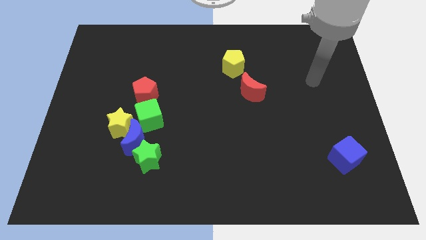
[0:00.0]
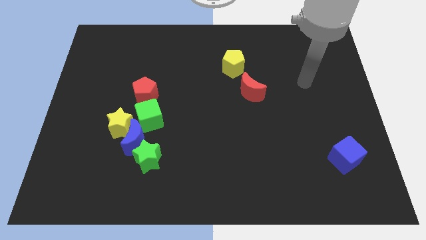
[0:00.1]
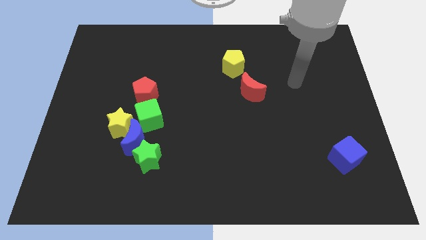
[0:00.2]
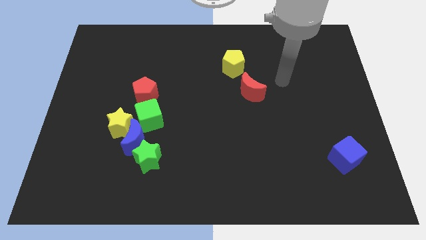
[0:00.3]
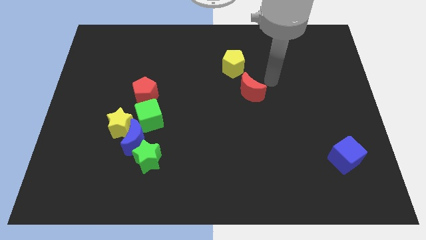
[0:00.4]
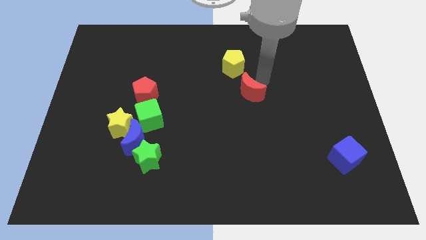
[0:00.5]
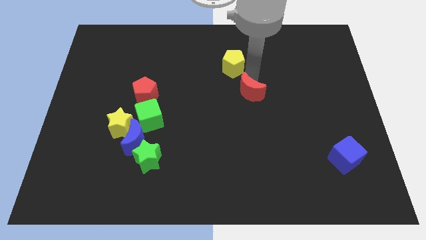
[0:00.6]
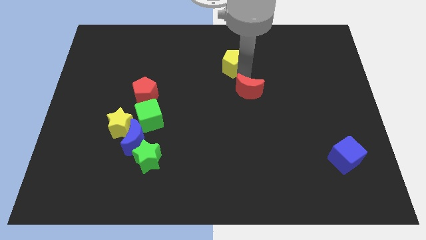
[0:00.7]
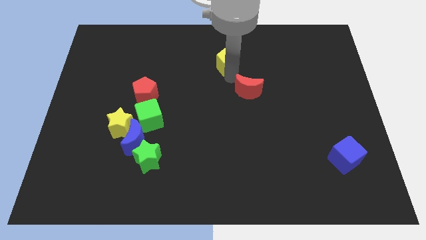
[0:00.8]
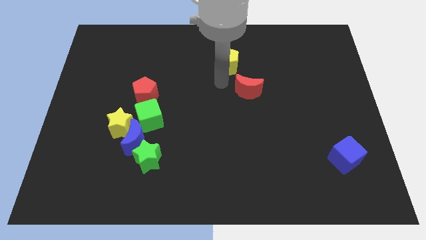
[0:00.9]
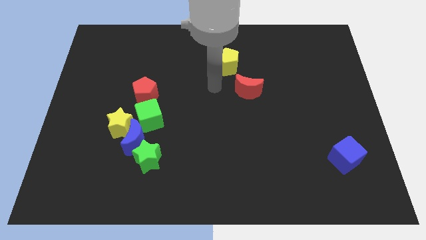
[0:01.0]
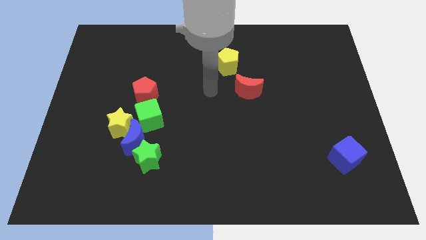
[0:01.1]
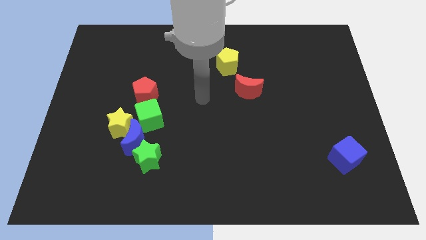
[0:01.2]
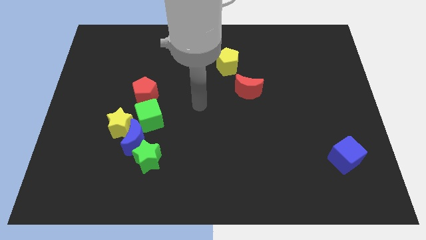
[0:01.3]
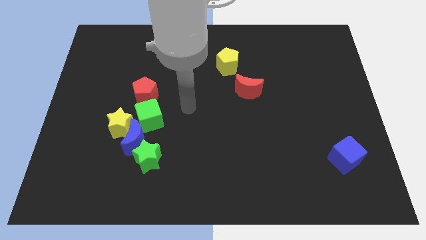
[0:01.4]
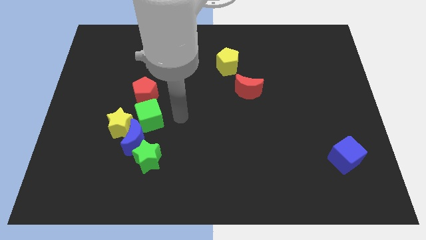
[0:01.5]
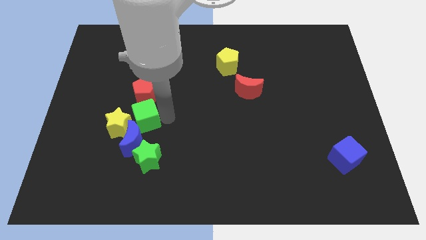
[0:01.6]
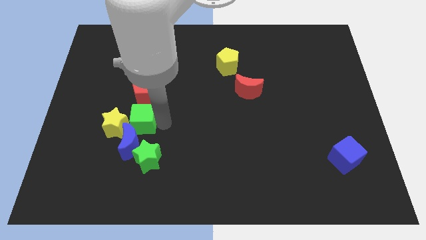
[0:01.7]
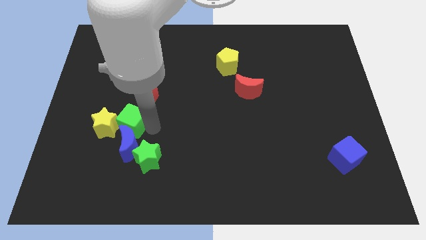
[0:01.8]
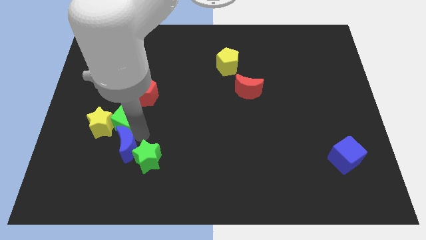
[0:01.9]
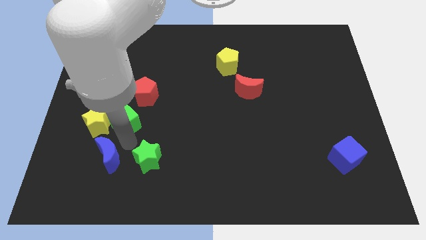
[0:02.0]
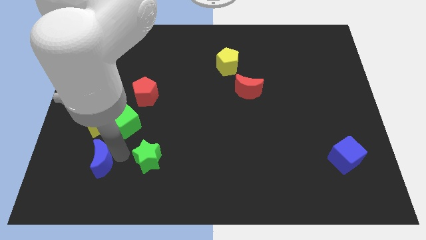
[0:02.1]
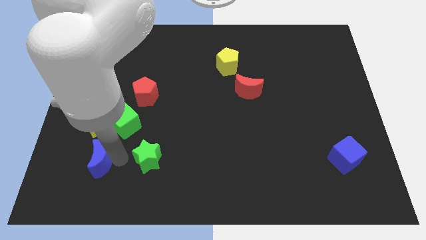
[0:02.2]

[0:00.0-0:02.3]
separate the green star from the blue moon

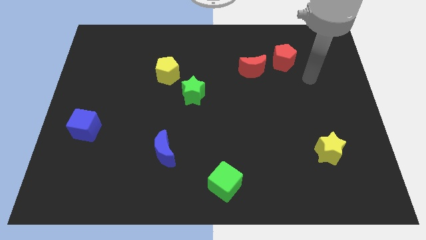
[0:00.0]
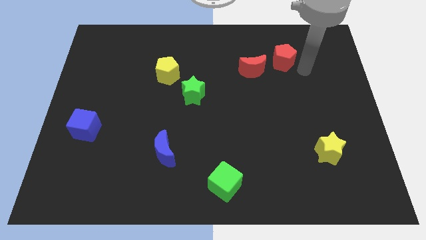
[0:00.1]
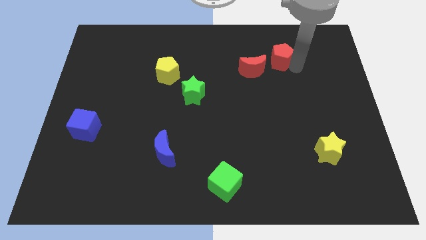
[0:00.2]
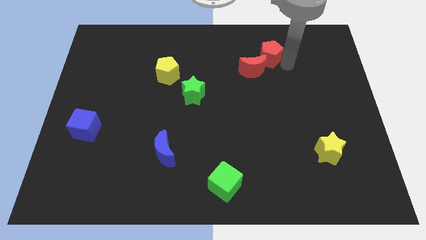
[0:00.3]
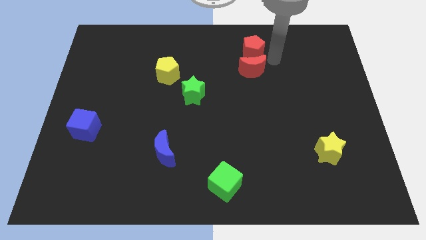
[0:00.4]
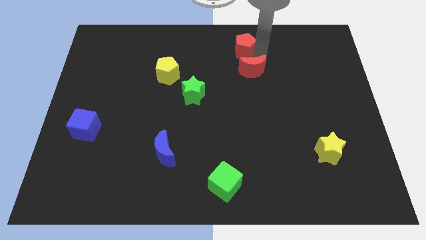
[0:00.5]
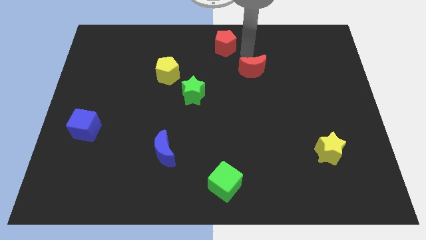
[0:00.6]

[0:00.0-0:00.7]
move the red moon away from the red pentagon

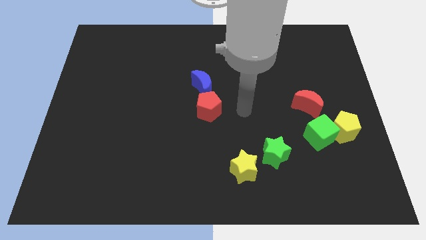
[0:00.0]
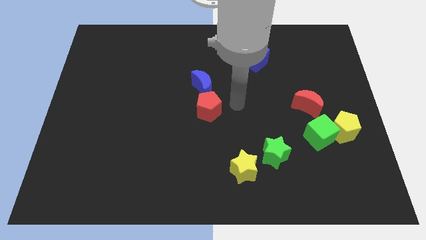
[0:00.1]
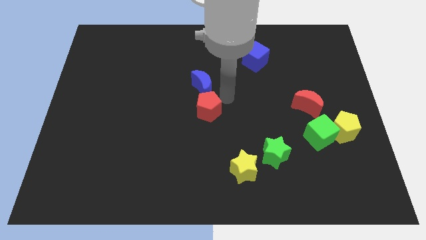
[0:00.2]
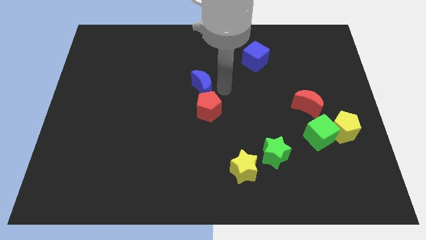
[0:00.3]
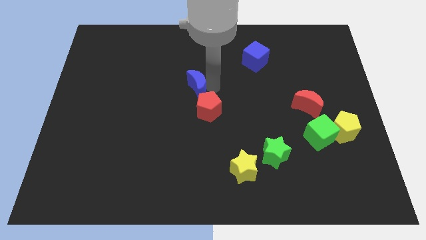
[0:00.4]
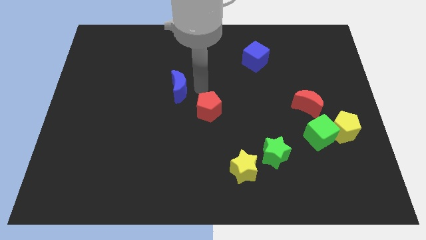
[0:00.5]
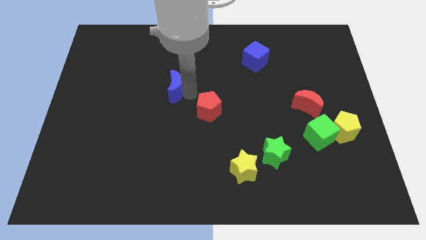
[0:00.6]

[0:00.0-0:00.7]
pull the red pentagon apart from the blue moon

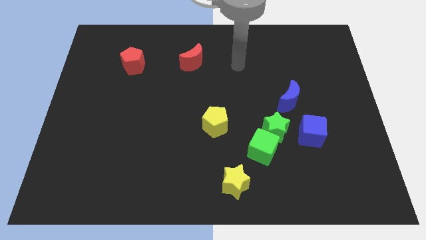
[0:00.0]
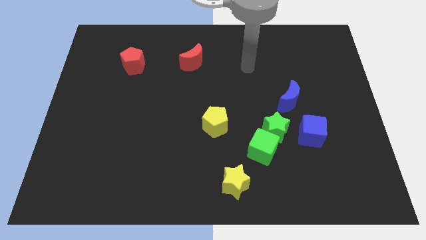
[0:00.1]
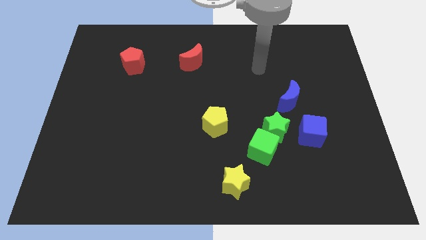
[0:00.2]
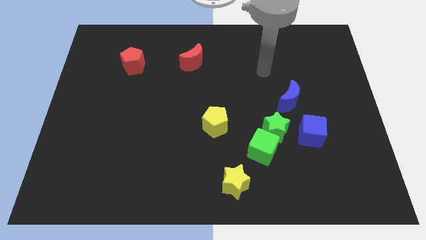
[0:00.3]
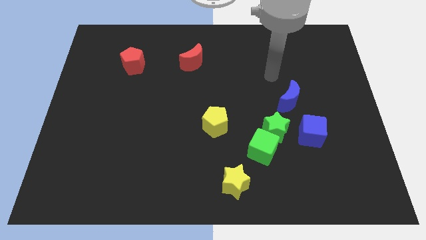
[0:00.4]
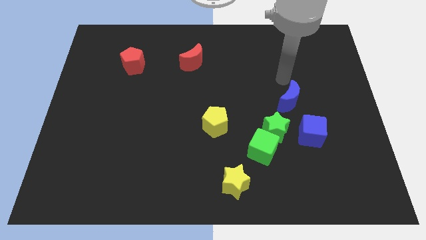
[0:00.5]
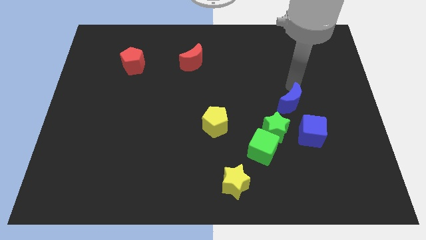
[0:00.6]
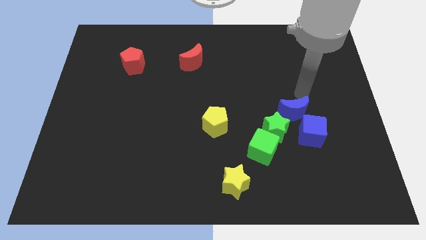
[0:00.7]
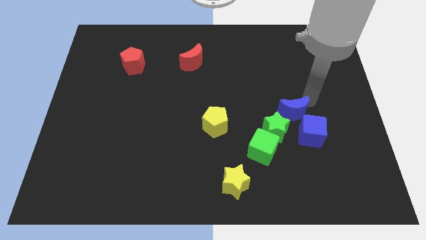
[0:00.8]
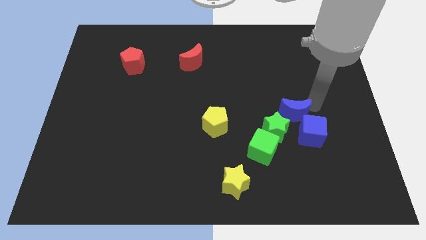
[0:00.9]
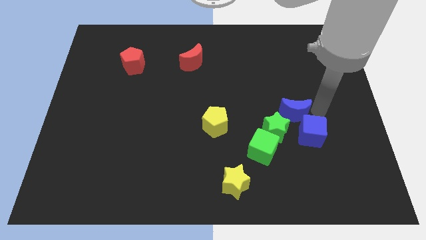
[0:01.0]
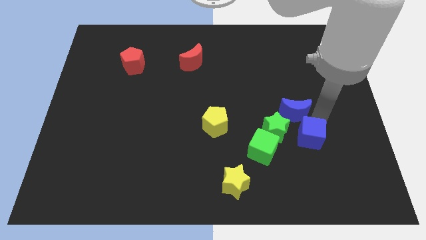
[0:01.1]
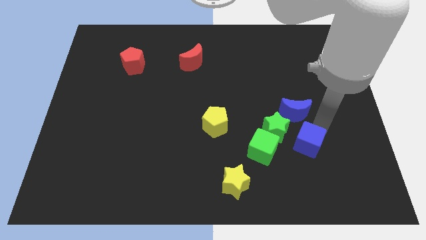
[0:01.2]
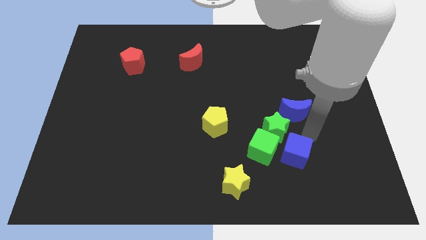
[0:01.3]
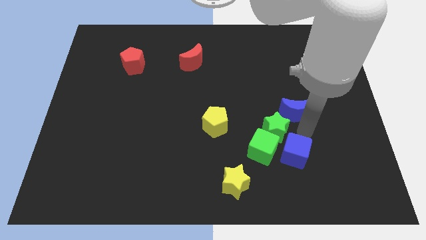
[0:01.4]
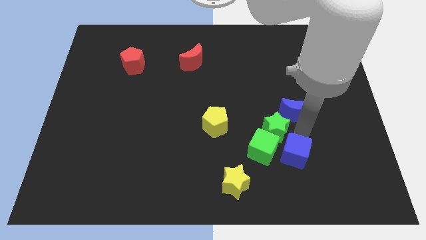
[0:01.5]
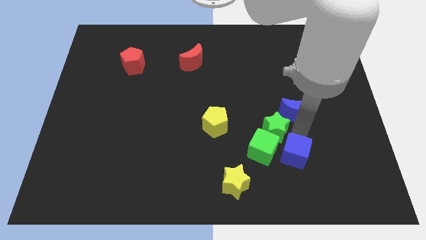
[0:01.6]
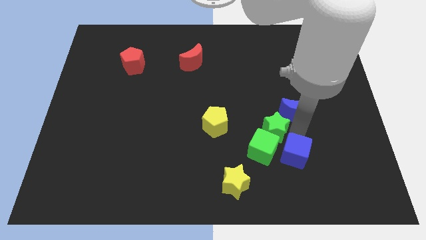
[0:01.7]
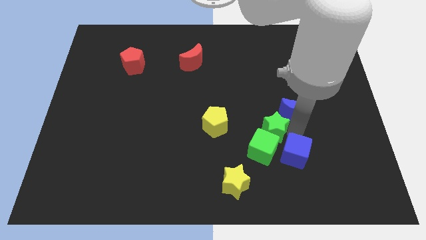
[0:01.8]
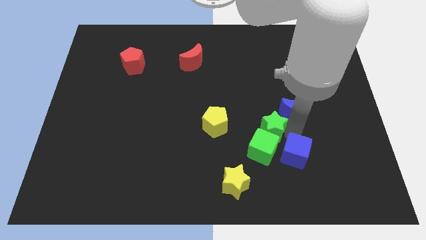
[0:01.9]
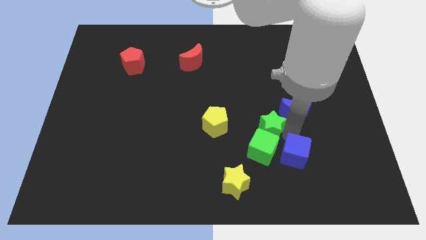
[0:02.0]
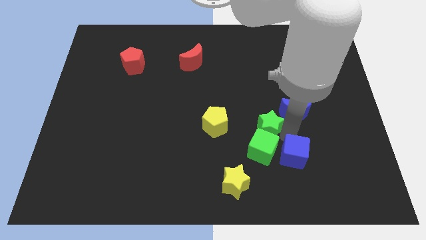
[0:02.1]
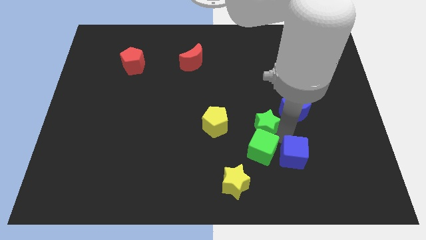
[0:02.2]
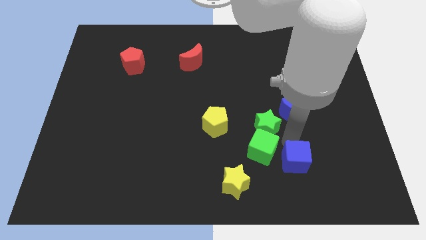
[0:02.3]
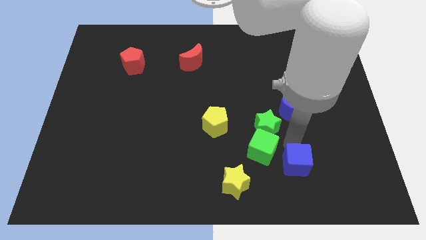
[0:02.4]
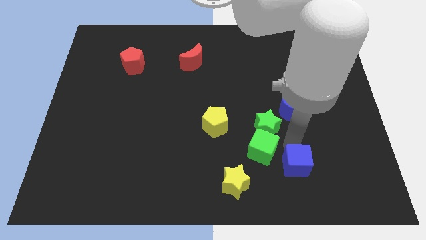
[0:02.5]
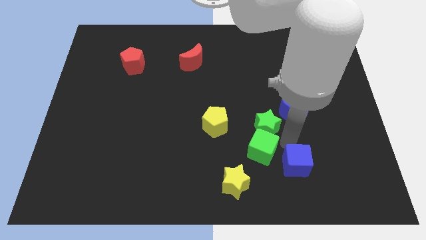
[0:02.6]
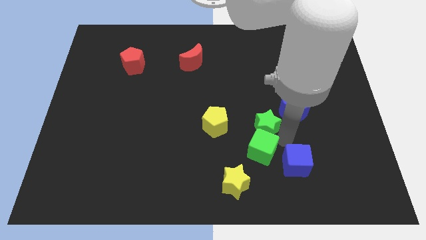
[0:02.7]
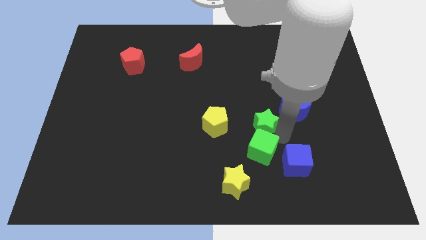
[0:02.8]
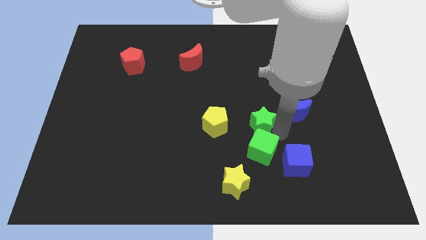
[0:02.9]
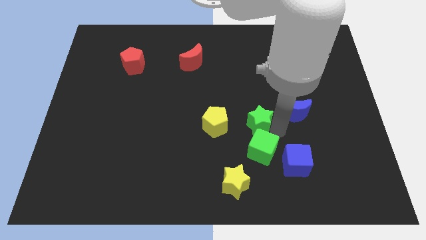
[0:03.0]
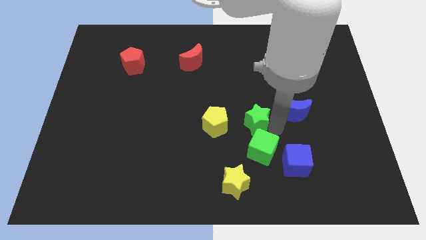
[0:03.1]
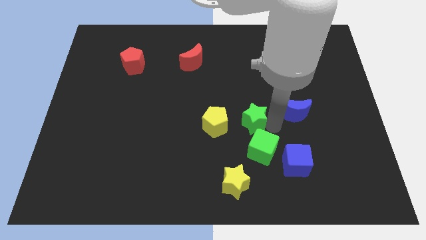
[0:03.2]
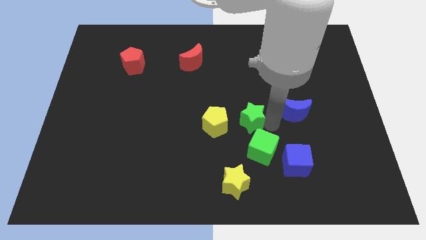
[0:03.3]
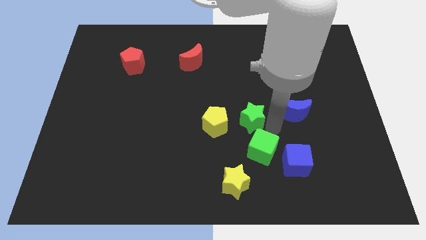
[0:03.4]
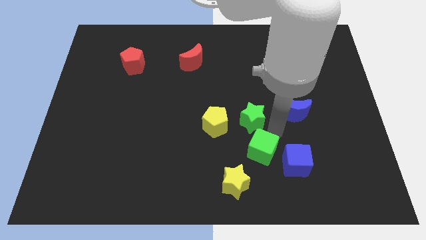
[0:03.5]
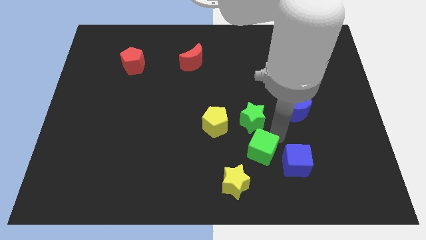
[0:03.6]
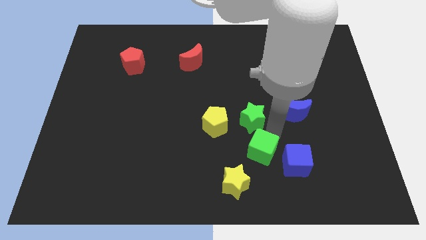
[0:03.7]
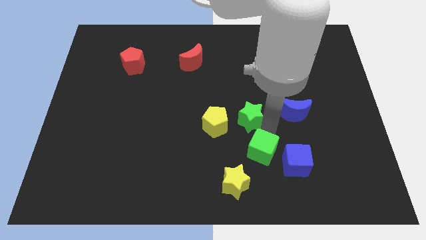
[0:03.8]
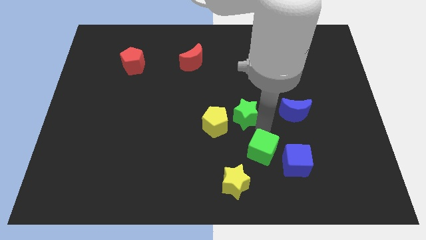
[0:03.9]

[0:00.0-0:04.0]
move the green star away from the group

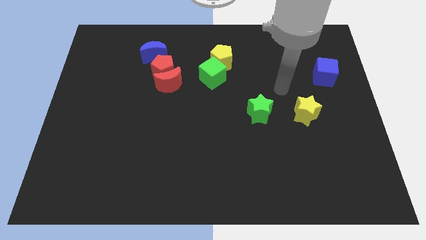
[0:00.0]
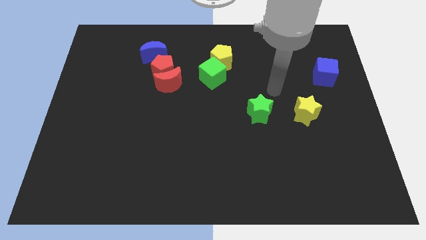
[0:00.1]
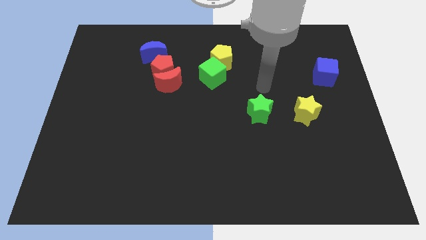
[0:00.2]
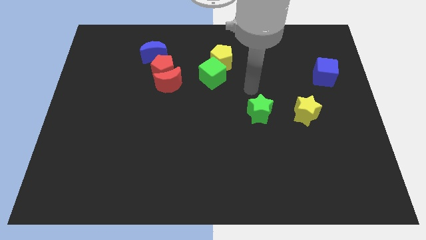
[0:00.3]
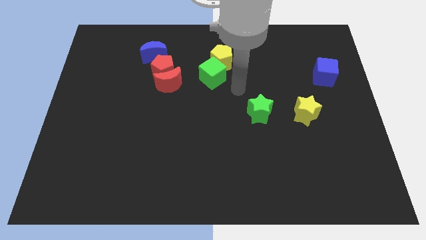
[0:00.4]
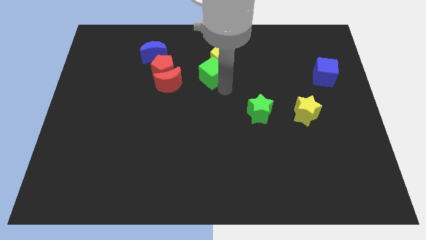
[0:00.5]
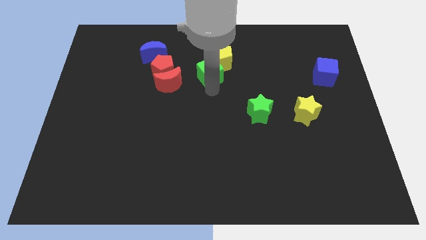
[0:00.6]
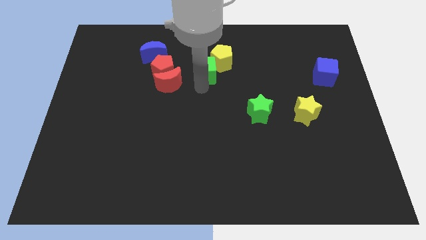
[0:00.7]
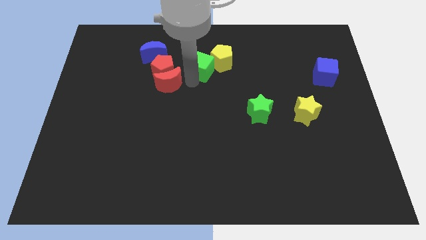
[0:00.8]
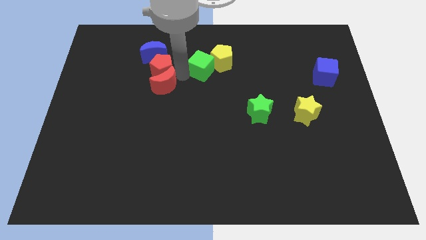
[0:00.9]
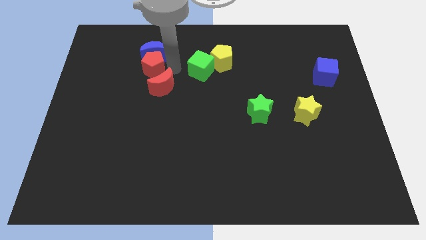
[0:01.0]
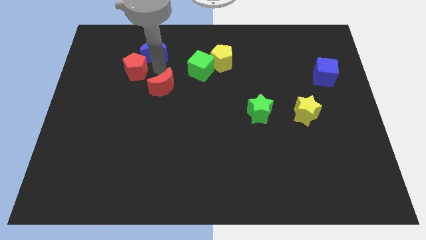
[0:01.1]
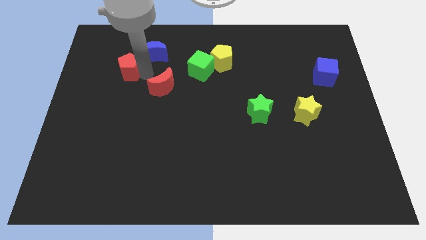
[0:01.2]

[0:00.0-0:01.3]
separate the red moon from the red pentagon

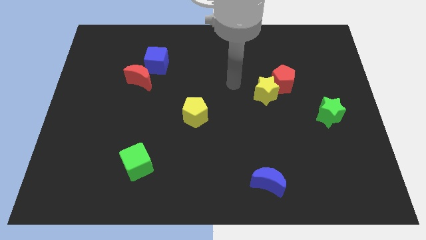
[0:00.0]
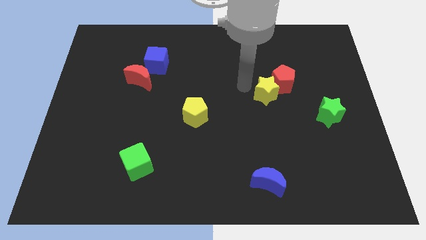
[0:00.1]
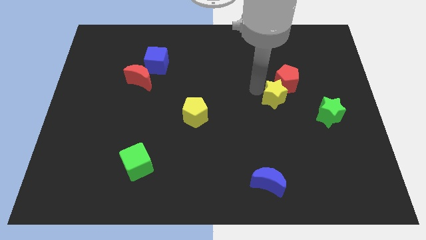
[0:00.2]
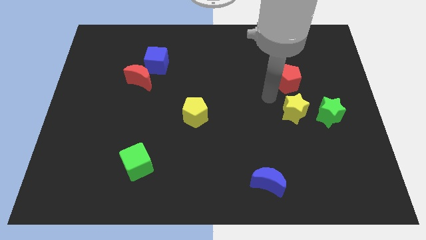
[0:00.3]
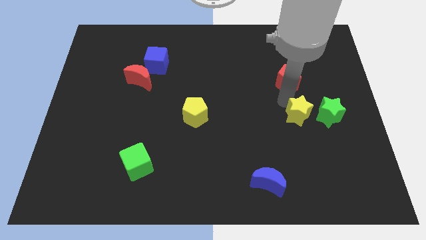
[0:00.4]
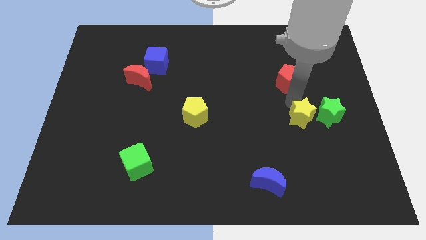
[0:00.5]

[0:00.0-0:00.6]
pull the red pentagon apart from the yellow star
